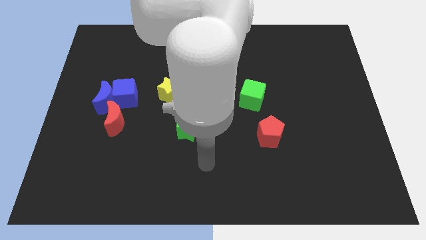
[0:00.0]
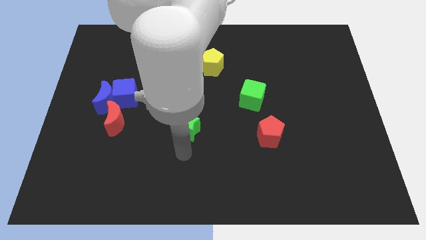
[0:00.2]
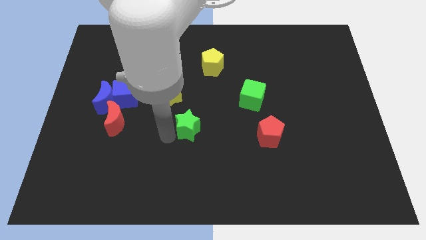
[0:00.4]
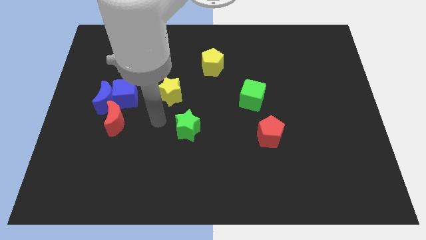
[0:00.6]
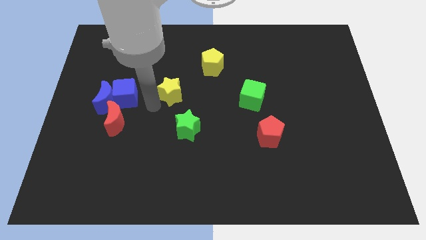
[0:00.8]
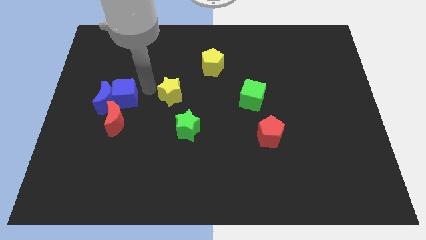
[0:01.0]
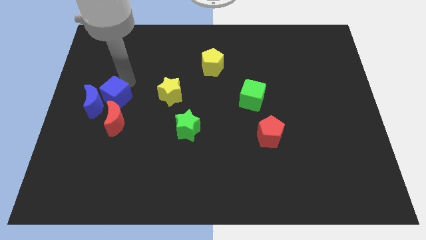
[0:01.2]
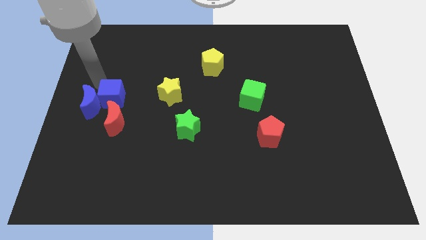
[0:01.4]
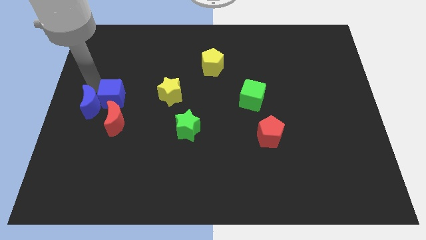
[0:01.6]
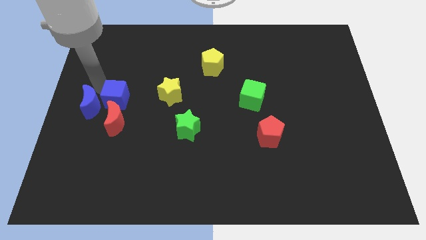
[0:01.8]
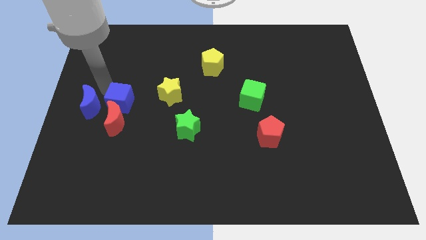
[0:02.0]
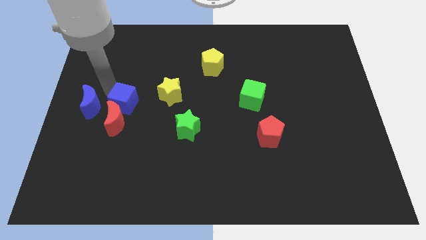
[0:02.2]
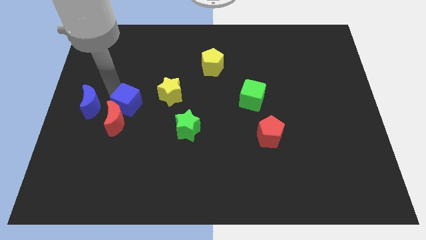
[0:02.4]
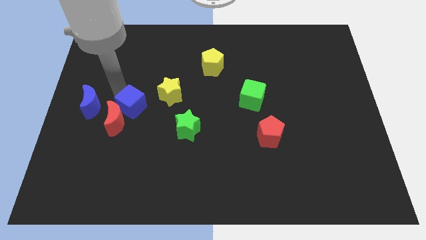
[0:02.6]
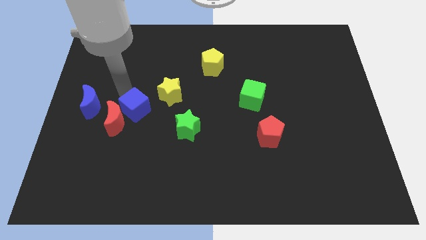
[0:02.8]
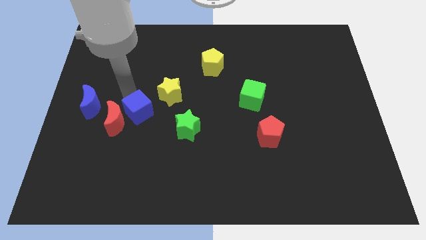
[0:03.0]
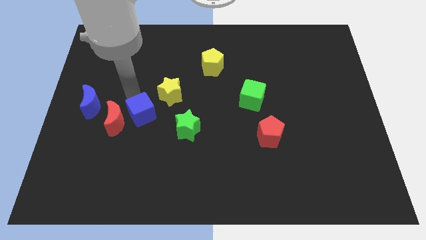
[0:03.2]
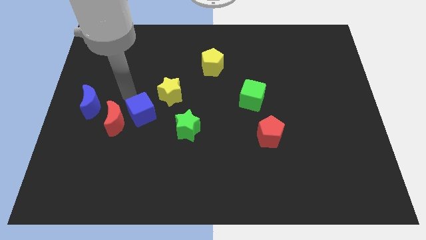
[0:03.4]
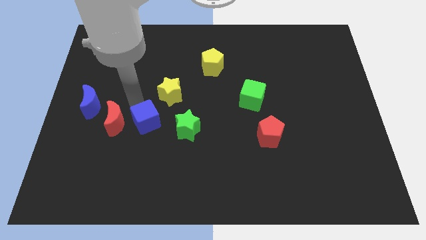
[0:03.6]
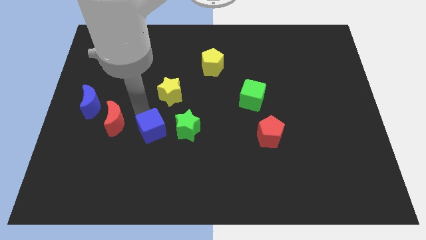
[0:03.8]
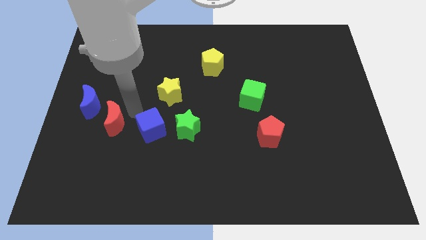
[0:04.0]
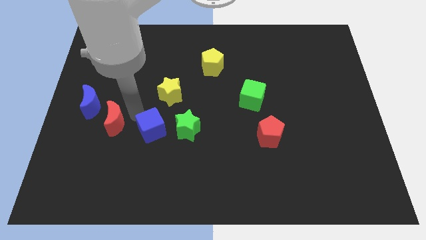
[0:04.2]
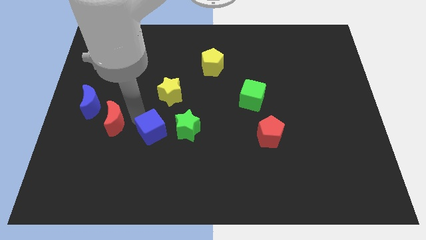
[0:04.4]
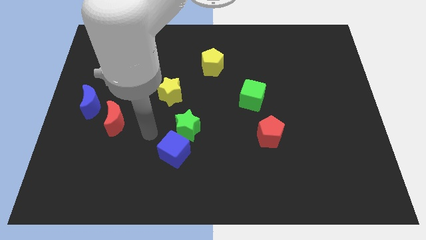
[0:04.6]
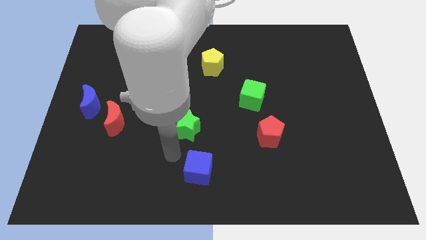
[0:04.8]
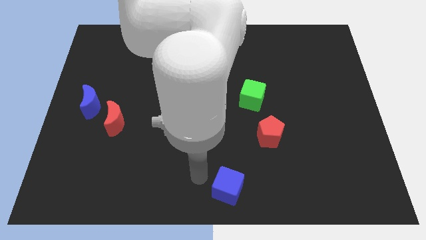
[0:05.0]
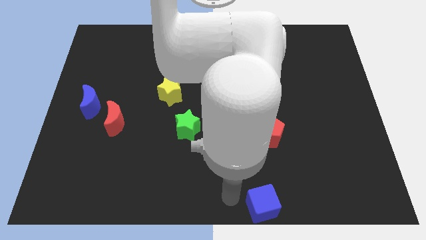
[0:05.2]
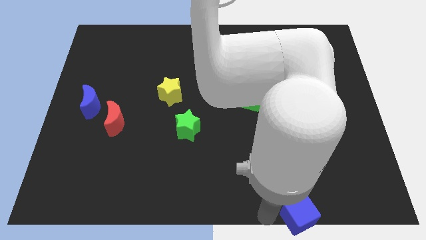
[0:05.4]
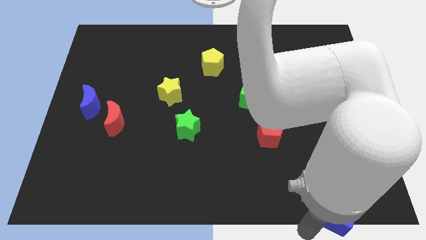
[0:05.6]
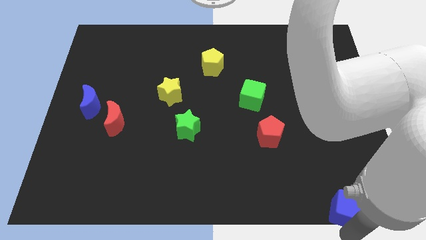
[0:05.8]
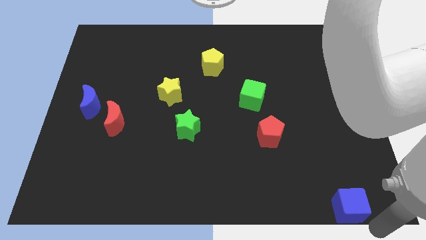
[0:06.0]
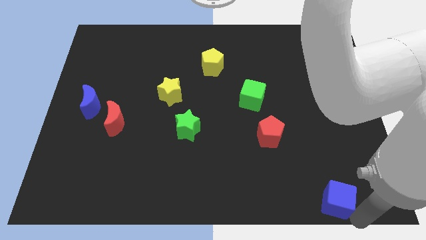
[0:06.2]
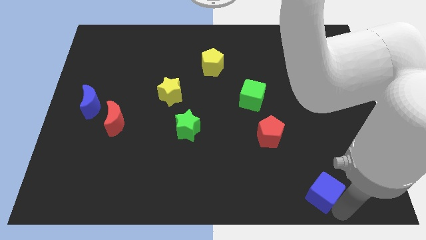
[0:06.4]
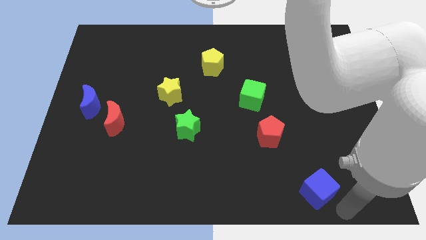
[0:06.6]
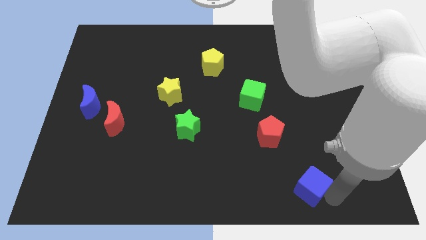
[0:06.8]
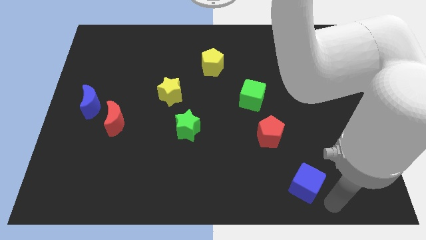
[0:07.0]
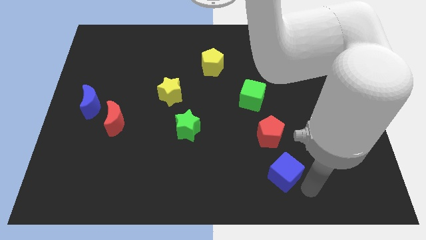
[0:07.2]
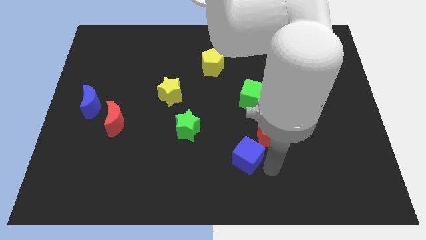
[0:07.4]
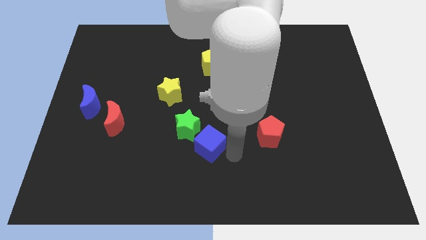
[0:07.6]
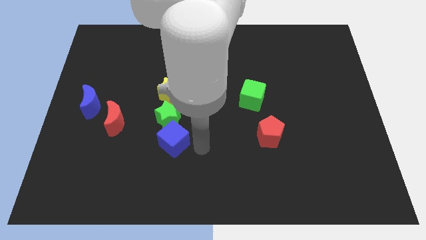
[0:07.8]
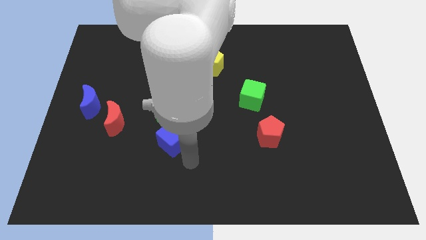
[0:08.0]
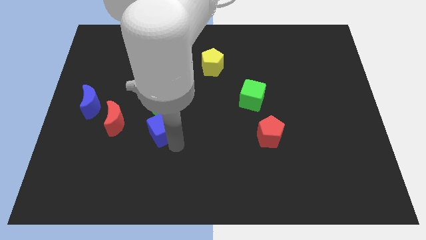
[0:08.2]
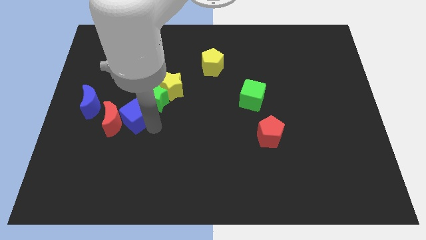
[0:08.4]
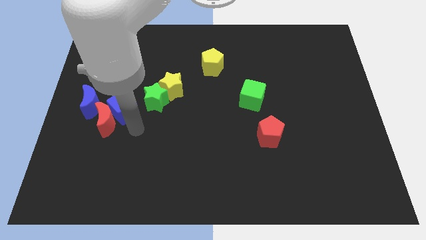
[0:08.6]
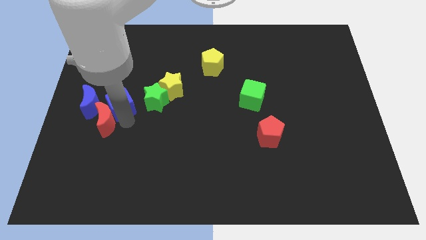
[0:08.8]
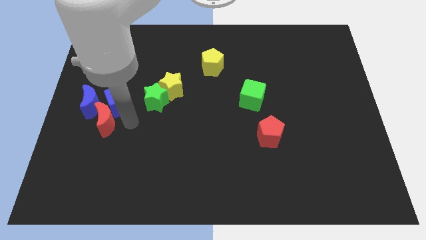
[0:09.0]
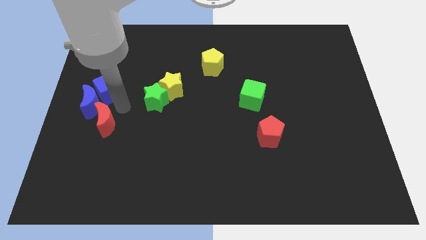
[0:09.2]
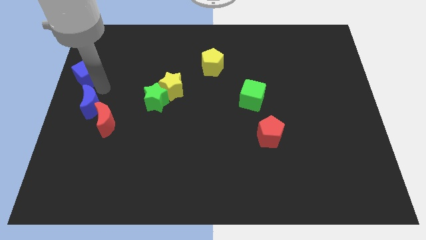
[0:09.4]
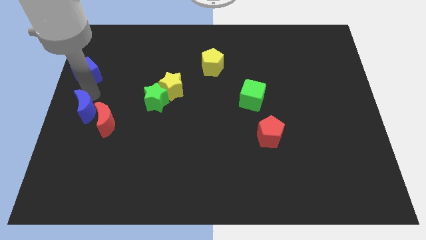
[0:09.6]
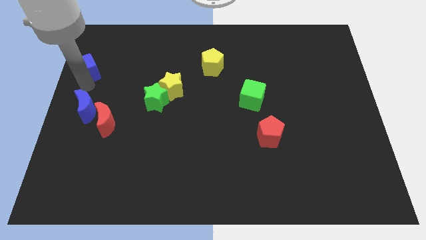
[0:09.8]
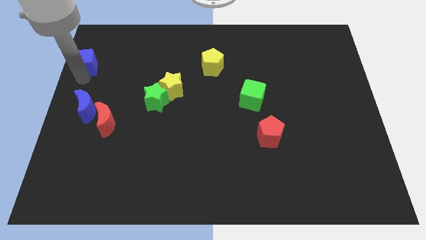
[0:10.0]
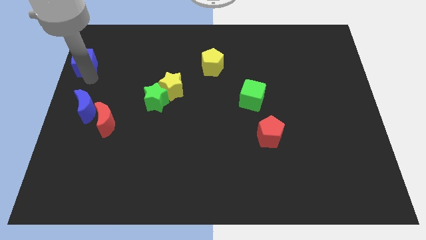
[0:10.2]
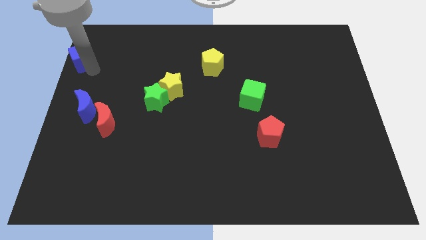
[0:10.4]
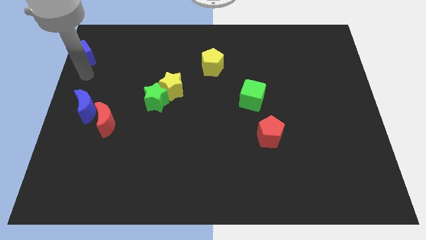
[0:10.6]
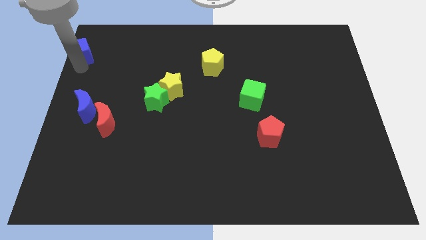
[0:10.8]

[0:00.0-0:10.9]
put the blue cube to the top left

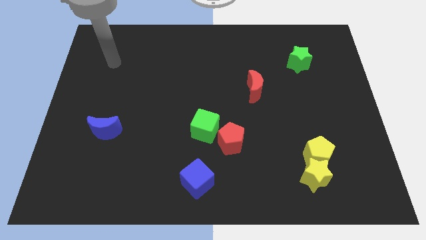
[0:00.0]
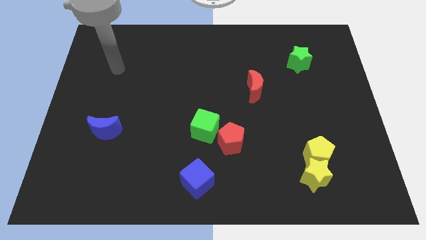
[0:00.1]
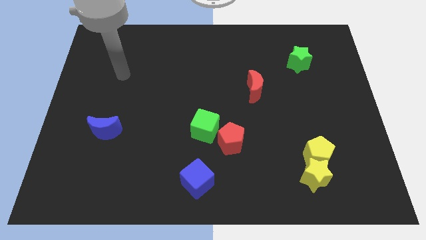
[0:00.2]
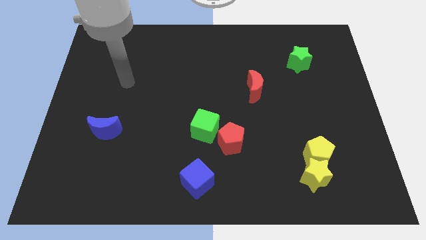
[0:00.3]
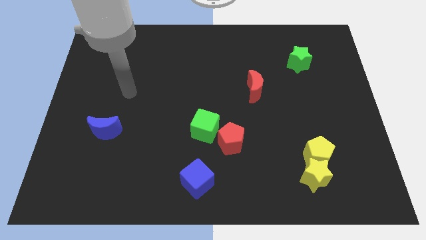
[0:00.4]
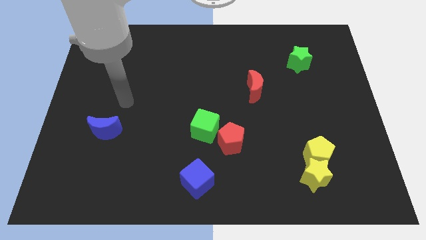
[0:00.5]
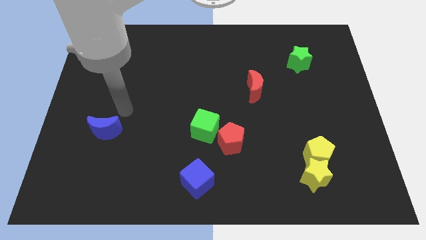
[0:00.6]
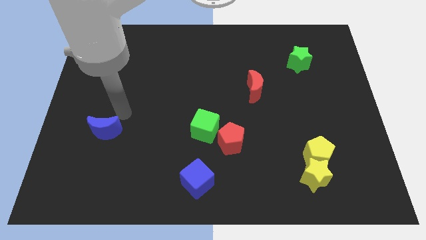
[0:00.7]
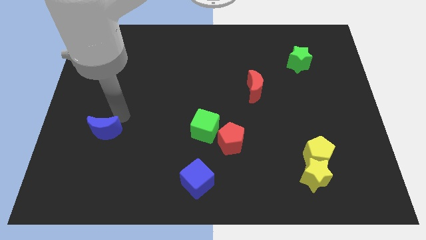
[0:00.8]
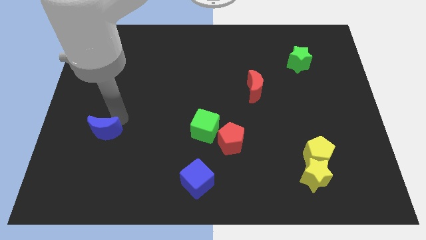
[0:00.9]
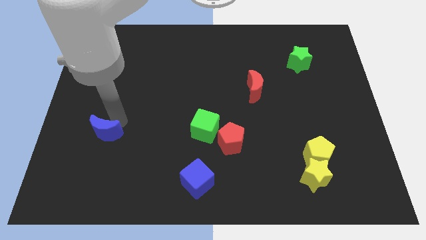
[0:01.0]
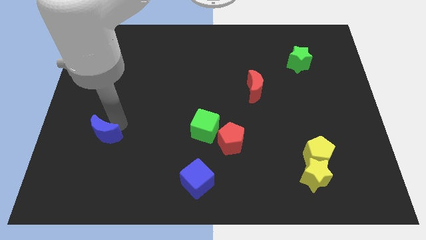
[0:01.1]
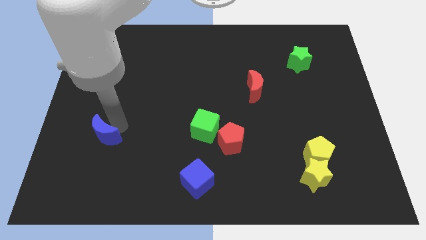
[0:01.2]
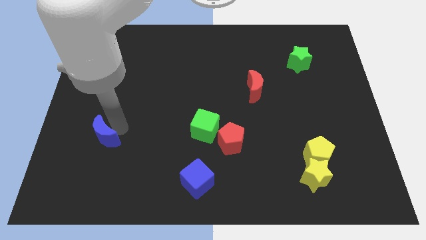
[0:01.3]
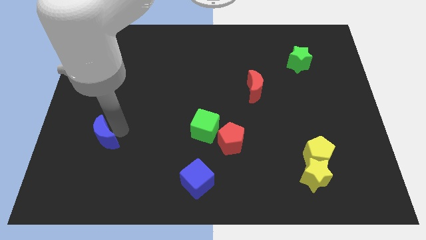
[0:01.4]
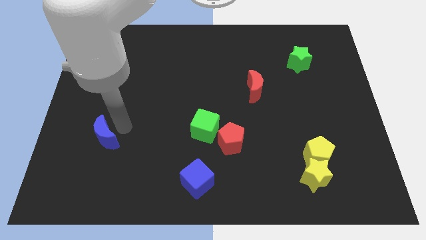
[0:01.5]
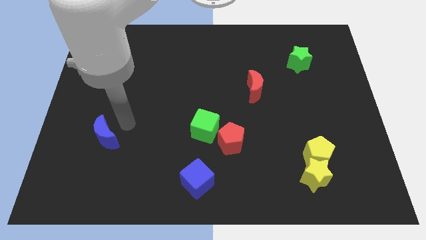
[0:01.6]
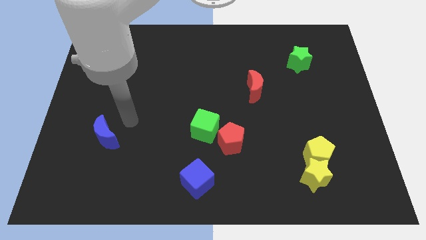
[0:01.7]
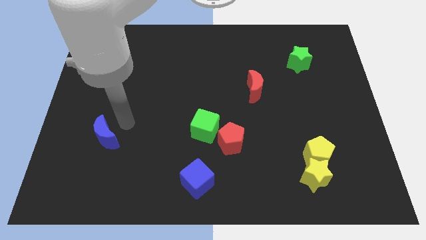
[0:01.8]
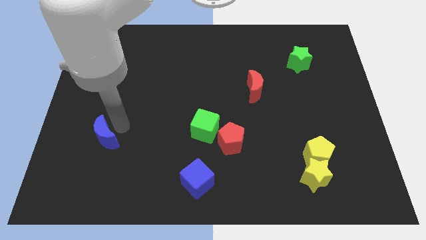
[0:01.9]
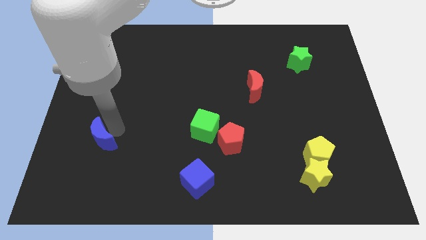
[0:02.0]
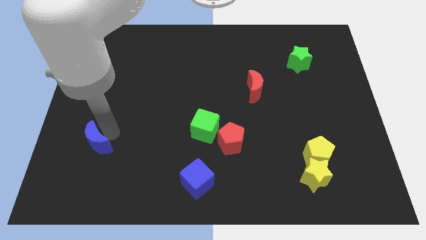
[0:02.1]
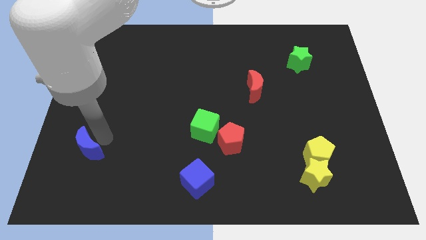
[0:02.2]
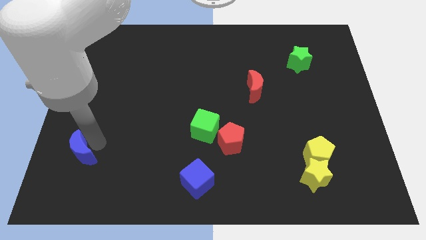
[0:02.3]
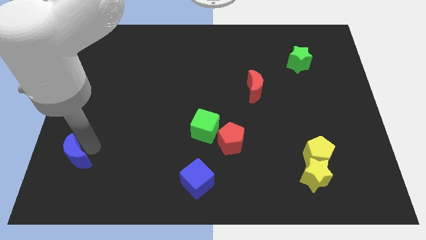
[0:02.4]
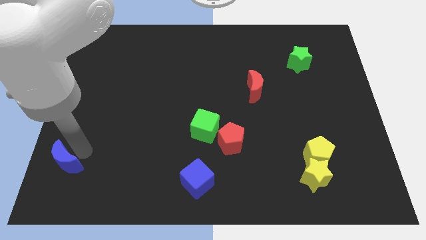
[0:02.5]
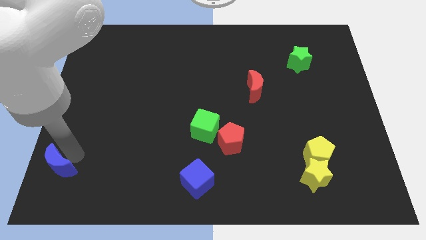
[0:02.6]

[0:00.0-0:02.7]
slide the blue moon to the bottom left
